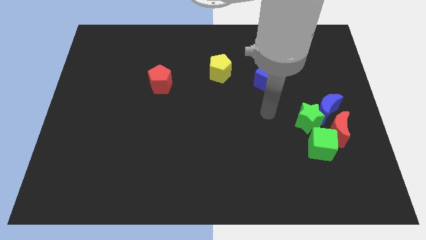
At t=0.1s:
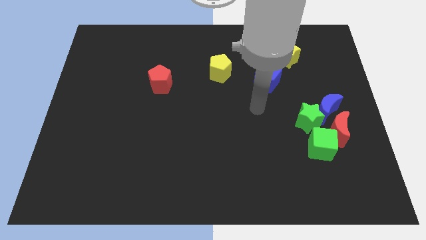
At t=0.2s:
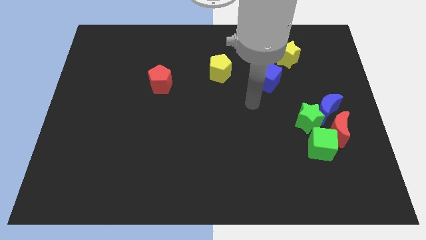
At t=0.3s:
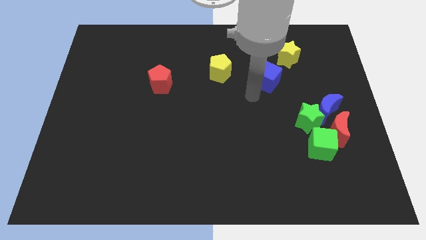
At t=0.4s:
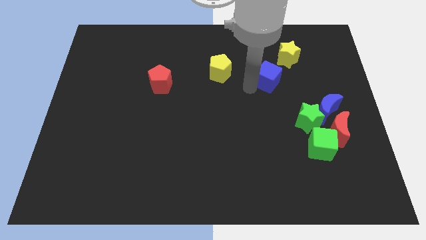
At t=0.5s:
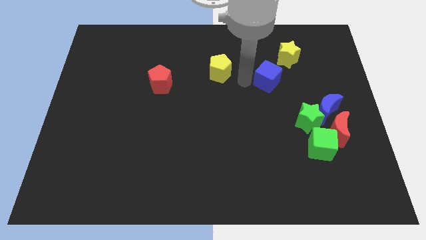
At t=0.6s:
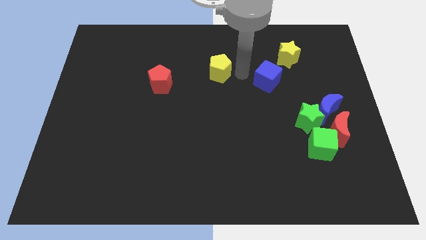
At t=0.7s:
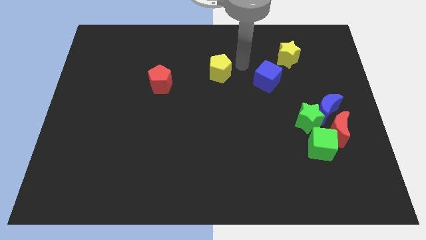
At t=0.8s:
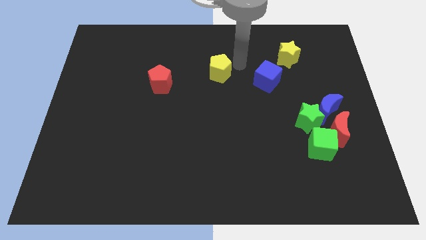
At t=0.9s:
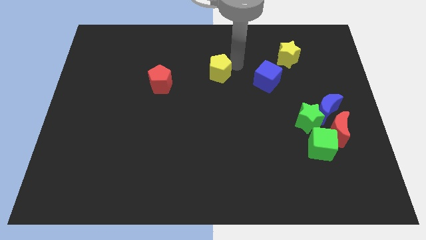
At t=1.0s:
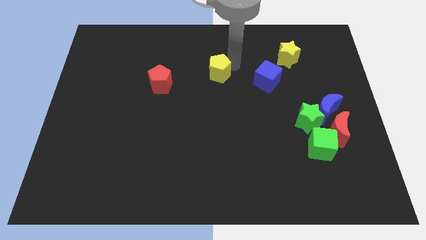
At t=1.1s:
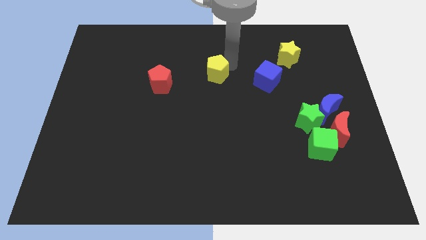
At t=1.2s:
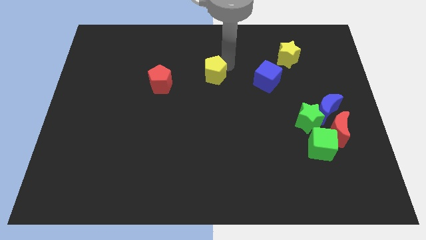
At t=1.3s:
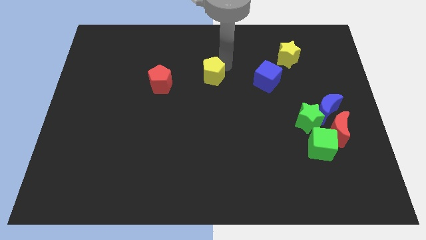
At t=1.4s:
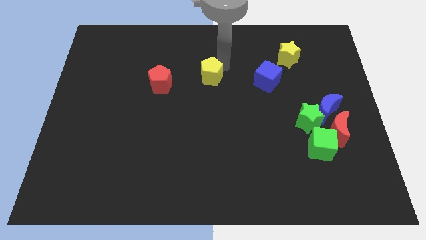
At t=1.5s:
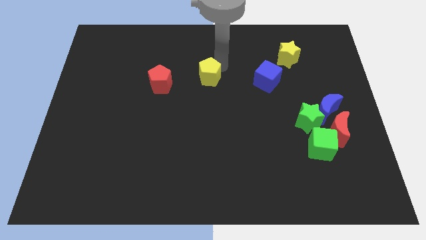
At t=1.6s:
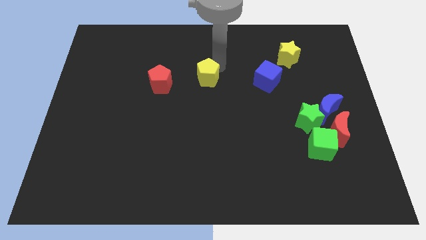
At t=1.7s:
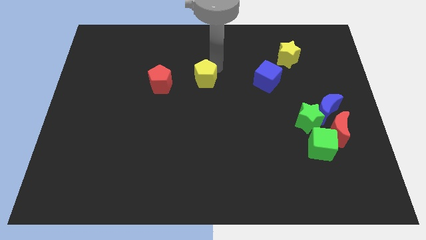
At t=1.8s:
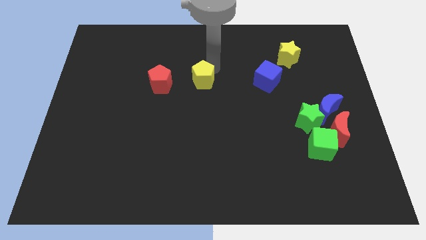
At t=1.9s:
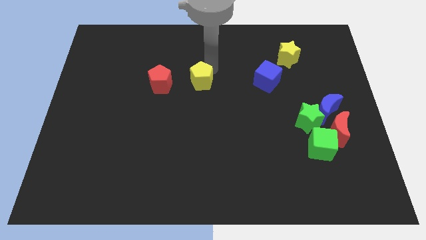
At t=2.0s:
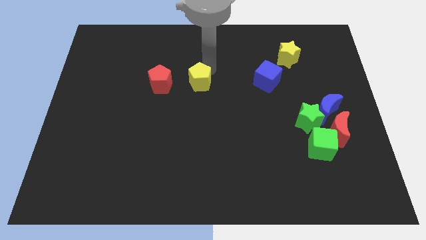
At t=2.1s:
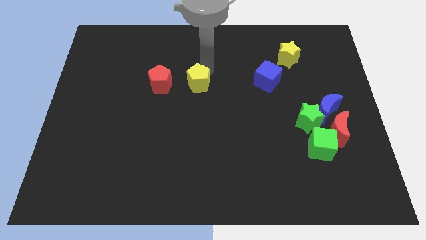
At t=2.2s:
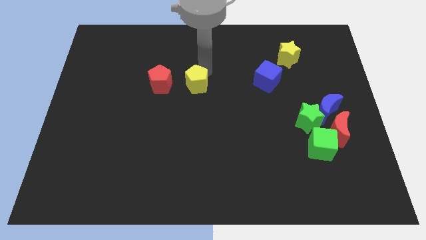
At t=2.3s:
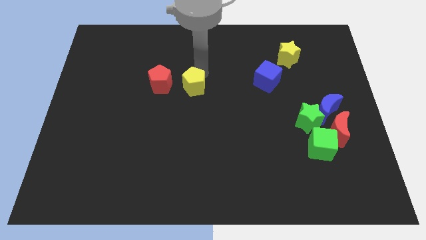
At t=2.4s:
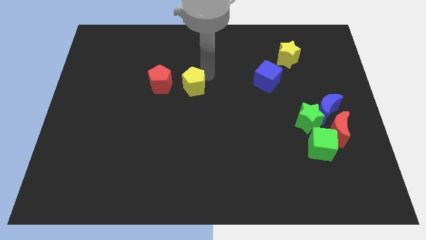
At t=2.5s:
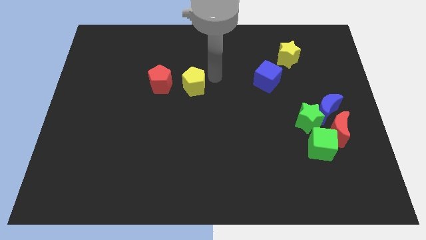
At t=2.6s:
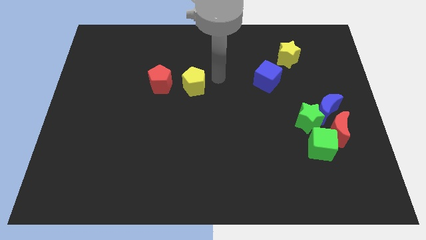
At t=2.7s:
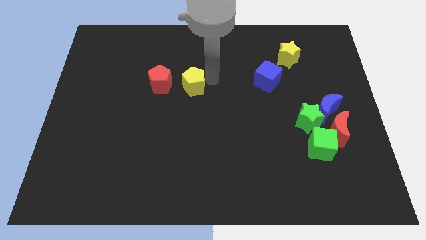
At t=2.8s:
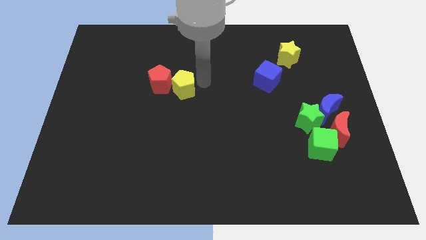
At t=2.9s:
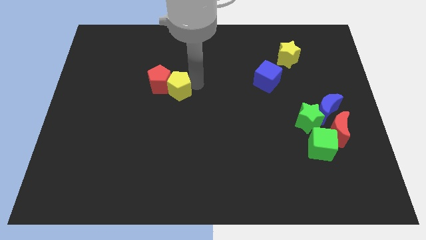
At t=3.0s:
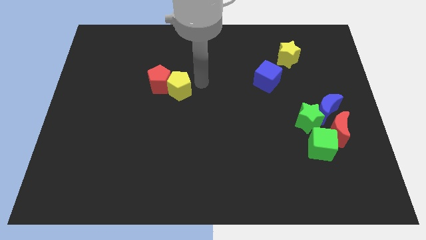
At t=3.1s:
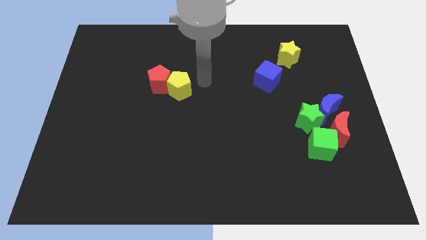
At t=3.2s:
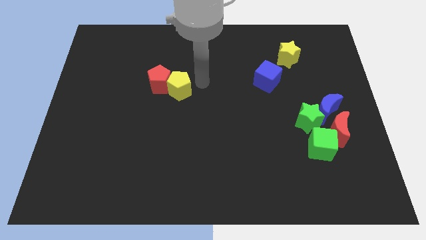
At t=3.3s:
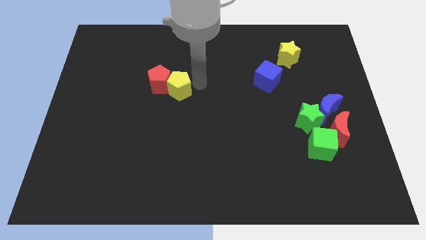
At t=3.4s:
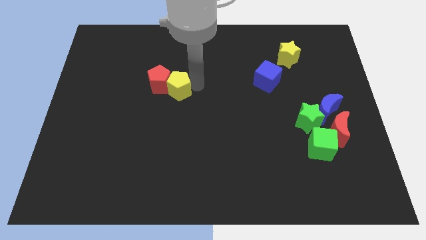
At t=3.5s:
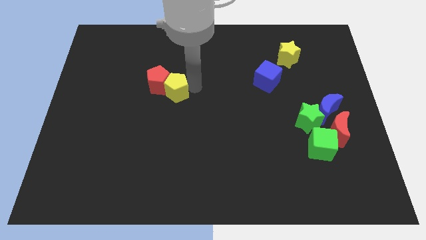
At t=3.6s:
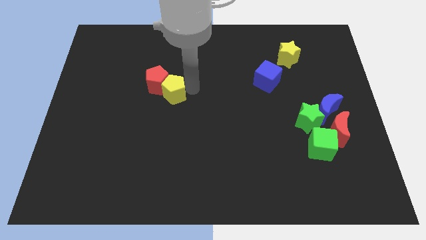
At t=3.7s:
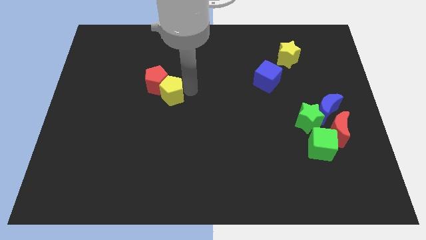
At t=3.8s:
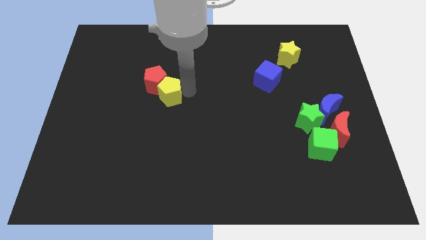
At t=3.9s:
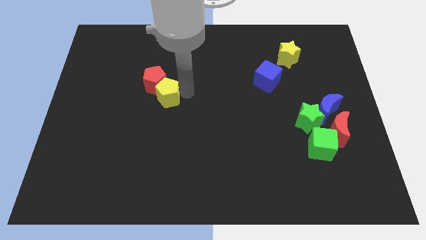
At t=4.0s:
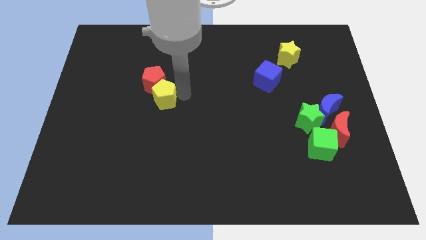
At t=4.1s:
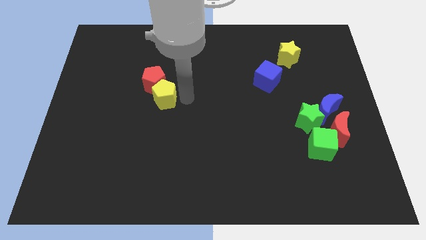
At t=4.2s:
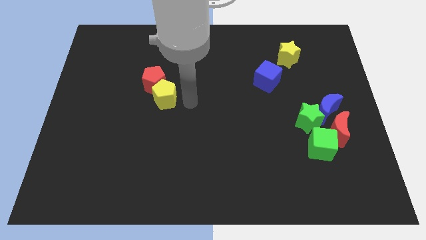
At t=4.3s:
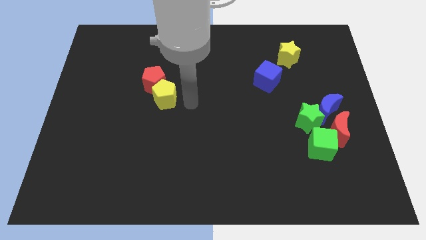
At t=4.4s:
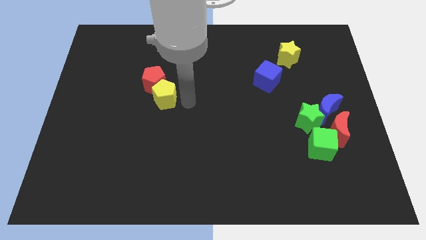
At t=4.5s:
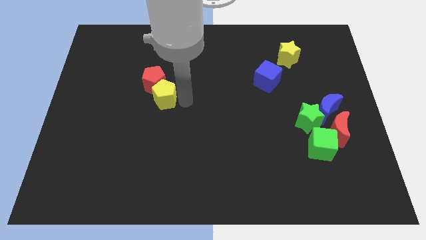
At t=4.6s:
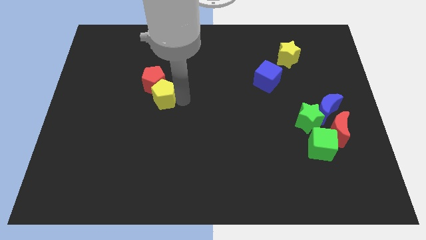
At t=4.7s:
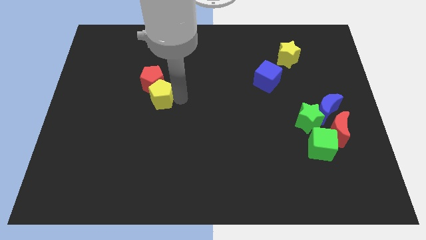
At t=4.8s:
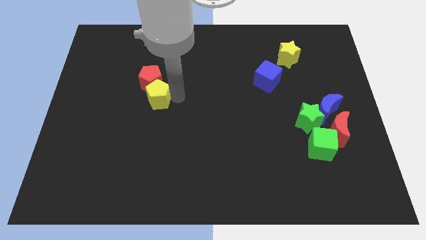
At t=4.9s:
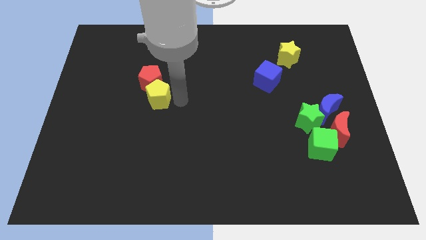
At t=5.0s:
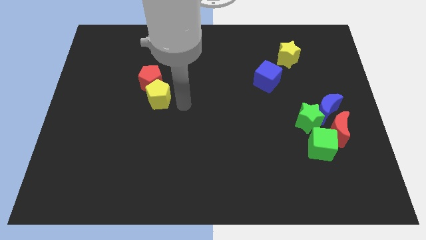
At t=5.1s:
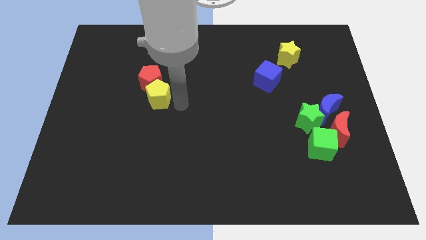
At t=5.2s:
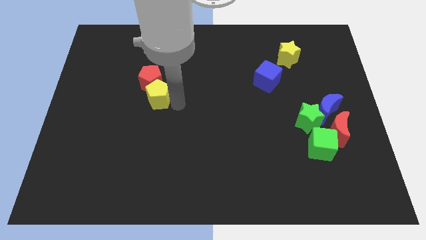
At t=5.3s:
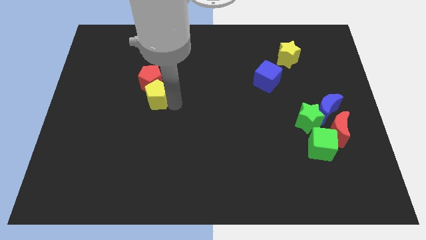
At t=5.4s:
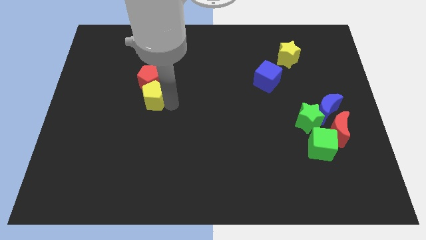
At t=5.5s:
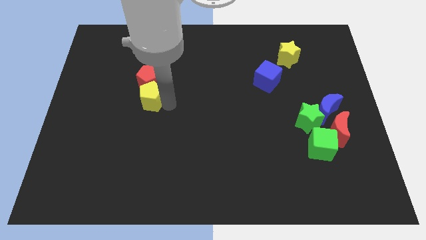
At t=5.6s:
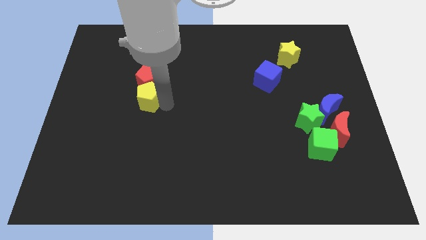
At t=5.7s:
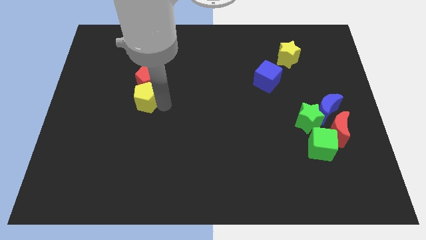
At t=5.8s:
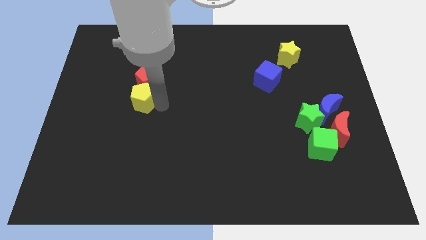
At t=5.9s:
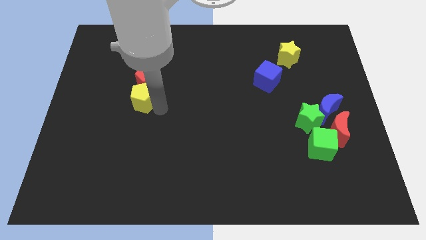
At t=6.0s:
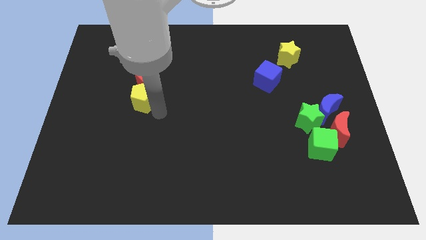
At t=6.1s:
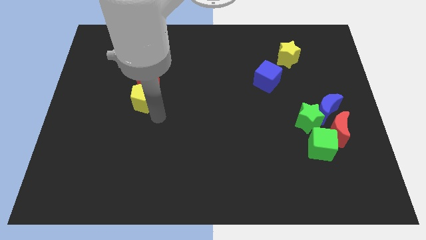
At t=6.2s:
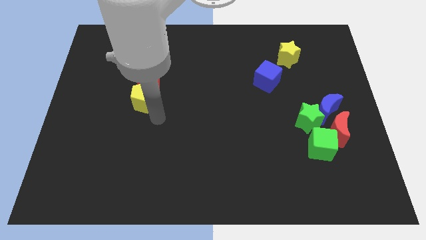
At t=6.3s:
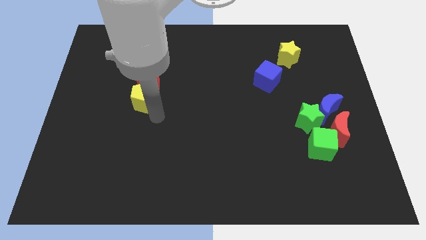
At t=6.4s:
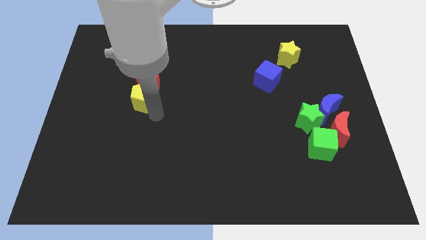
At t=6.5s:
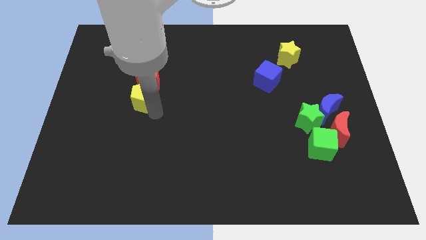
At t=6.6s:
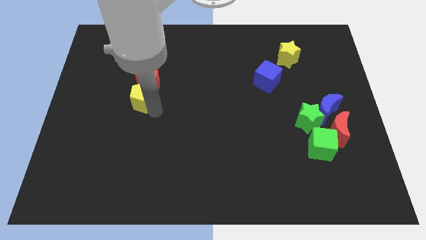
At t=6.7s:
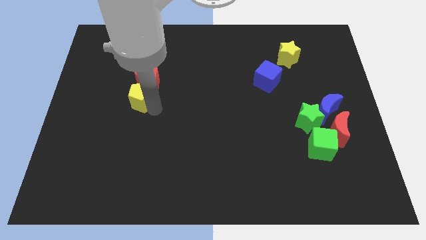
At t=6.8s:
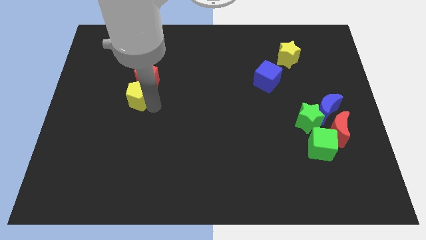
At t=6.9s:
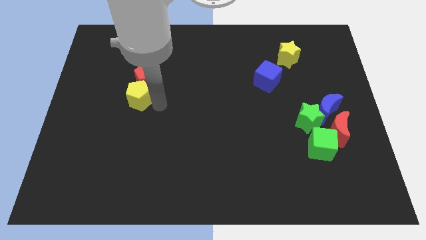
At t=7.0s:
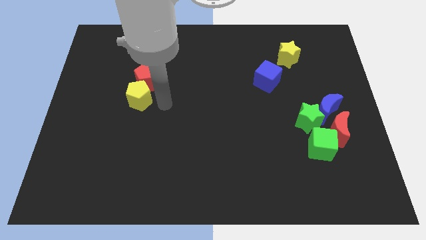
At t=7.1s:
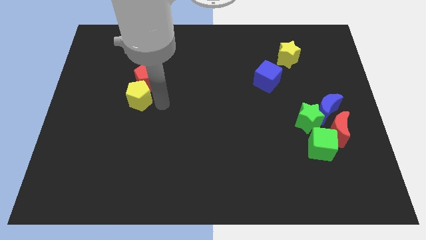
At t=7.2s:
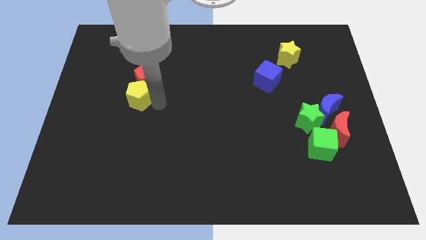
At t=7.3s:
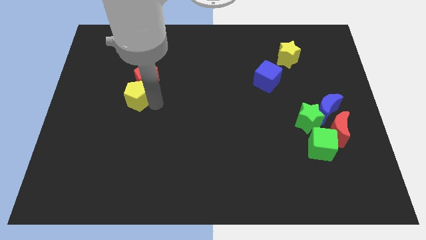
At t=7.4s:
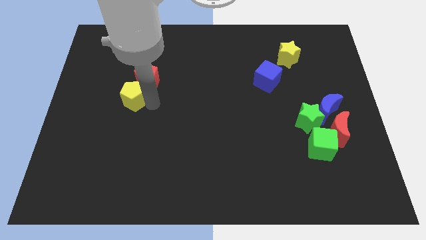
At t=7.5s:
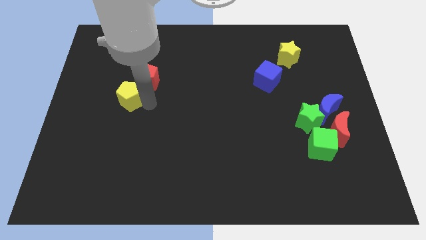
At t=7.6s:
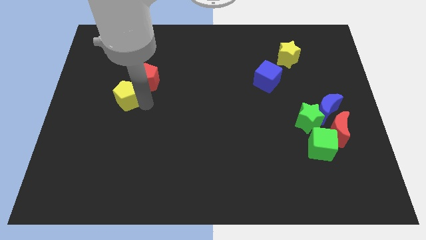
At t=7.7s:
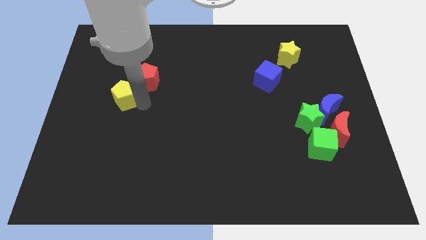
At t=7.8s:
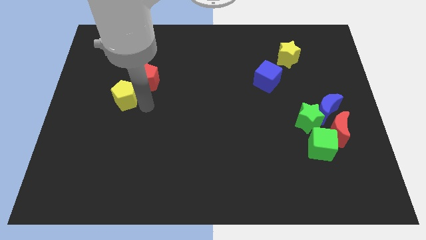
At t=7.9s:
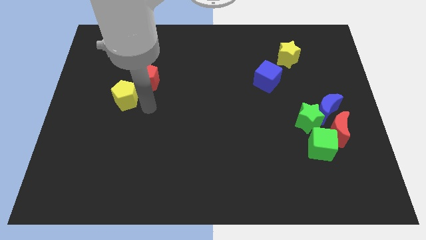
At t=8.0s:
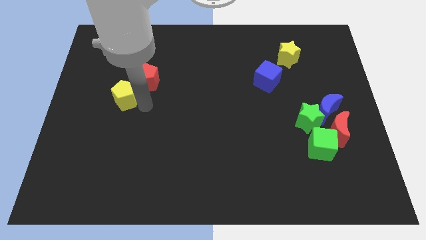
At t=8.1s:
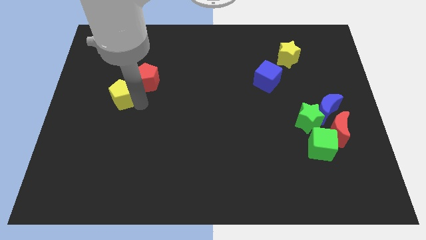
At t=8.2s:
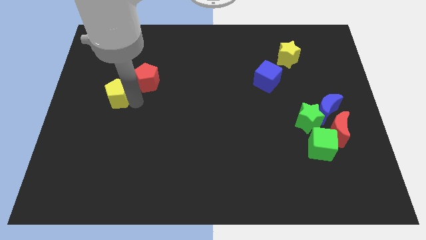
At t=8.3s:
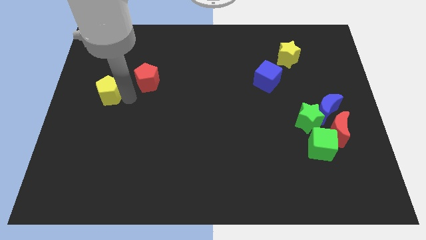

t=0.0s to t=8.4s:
move the yellow pentagon to the left side of the board
